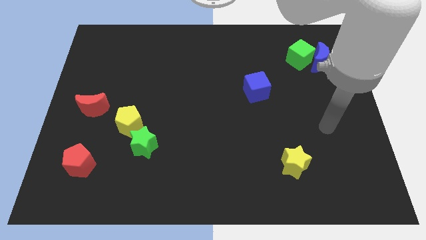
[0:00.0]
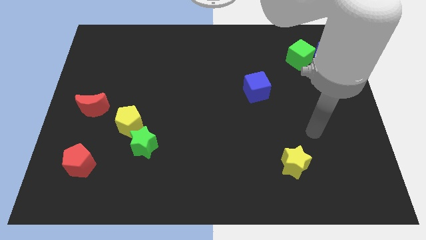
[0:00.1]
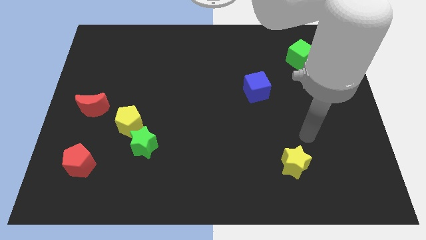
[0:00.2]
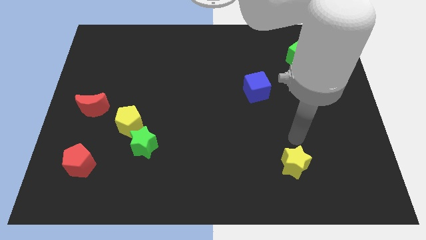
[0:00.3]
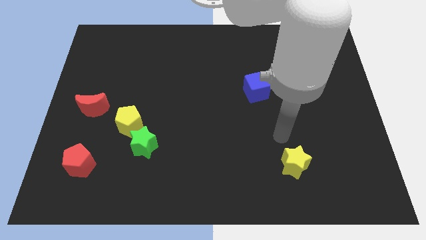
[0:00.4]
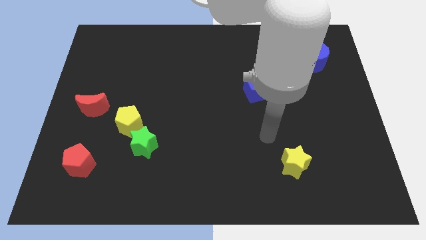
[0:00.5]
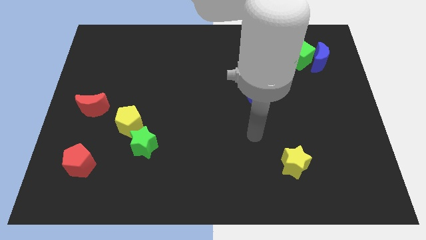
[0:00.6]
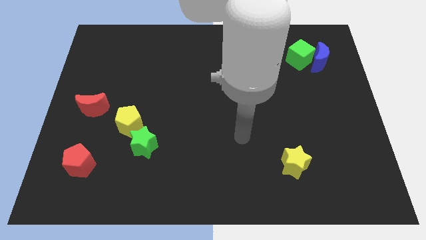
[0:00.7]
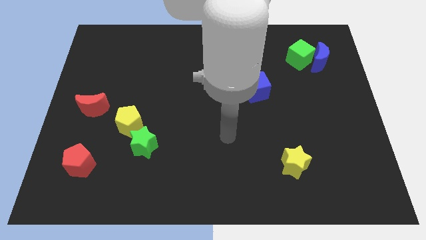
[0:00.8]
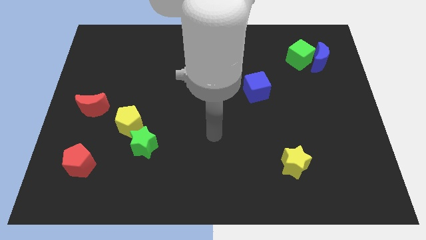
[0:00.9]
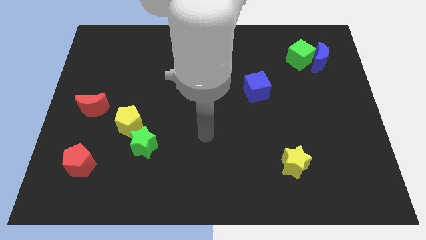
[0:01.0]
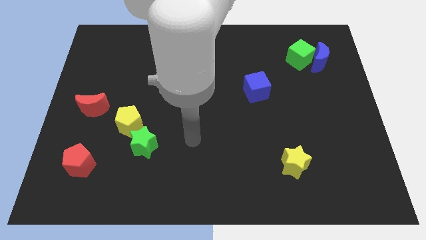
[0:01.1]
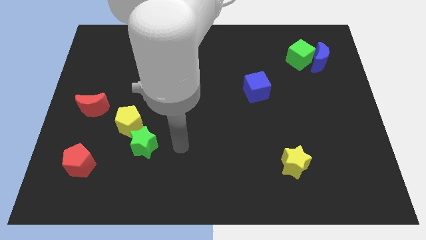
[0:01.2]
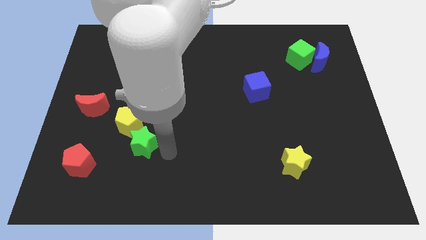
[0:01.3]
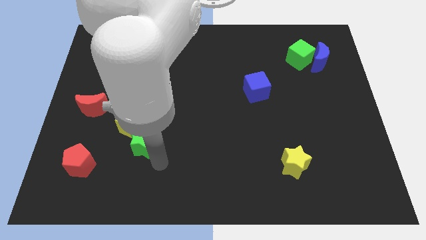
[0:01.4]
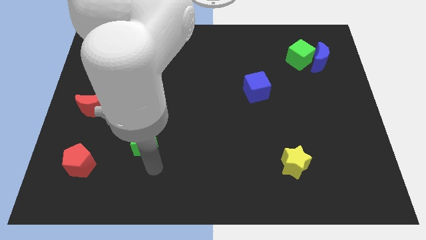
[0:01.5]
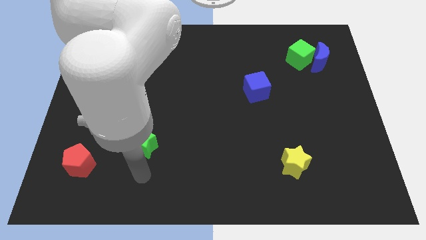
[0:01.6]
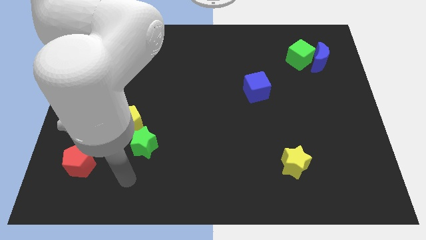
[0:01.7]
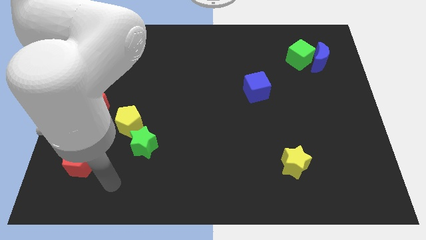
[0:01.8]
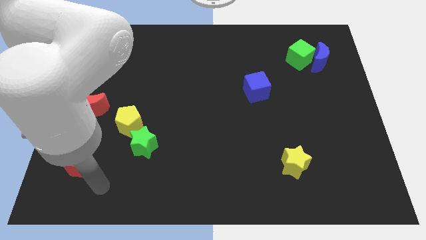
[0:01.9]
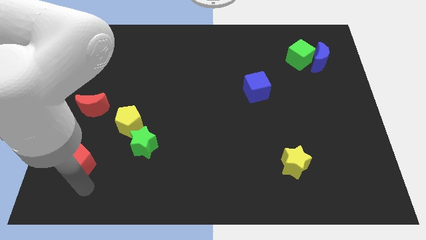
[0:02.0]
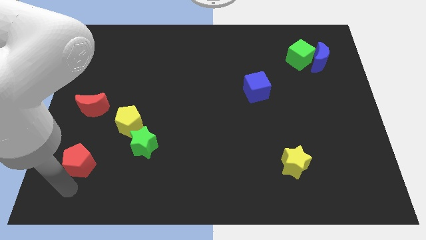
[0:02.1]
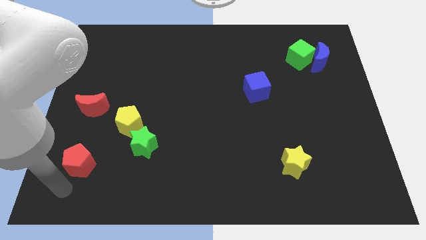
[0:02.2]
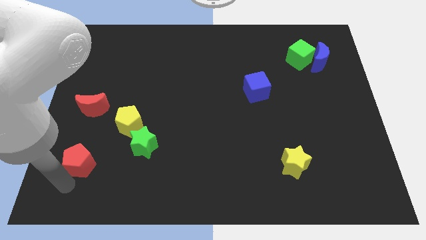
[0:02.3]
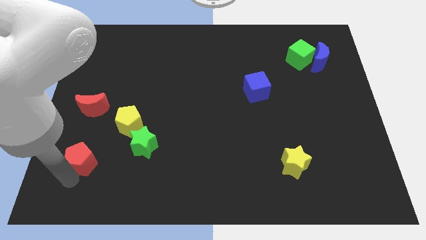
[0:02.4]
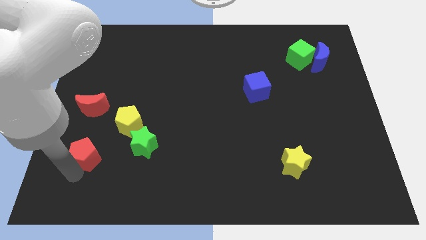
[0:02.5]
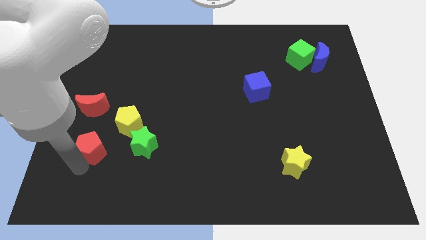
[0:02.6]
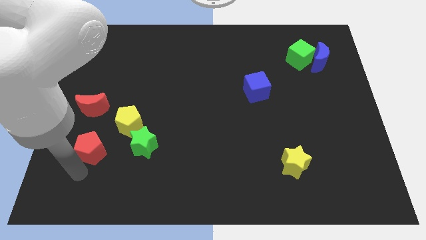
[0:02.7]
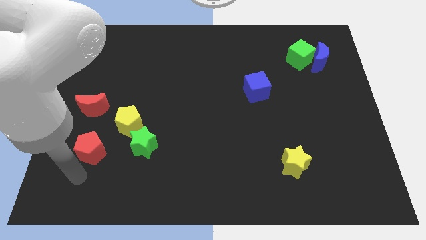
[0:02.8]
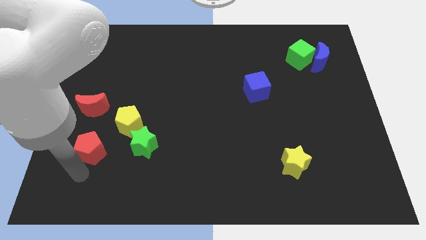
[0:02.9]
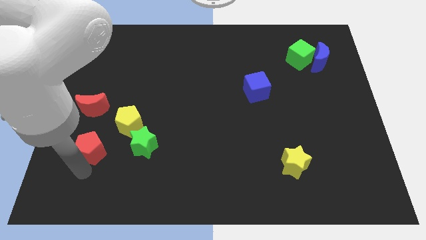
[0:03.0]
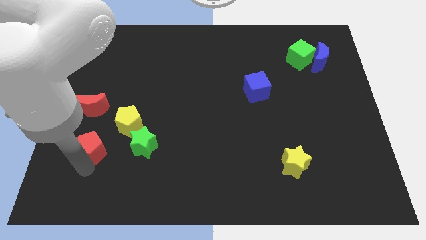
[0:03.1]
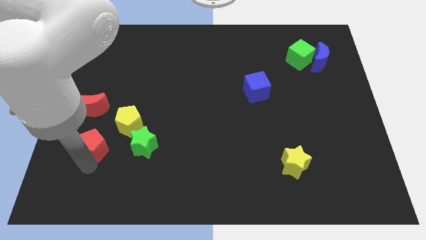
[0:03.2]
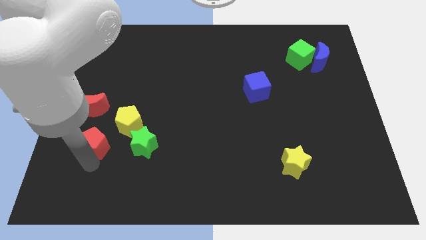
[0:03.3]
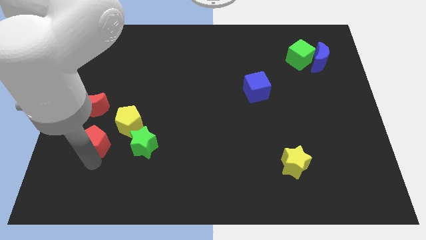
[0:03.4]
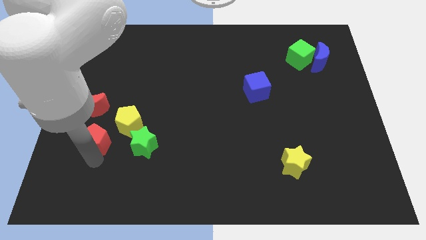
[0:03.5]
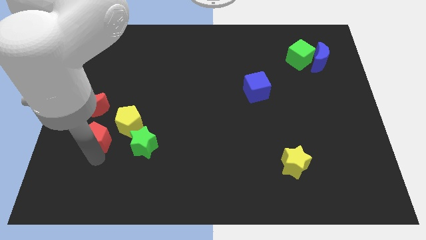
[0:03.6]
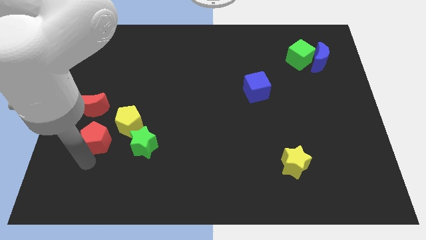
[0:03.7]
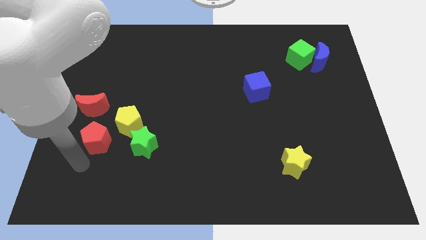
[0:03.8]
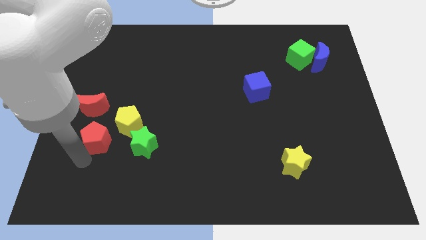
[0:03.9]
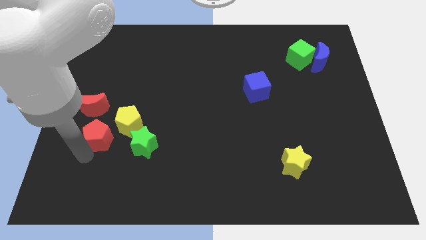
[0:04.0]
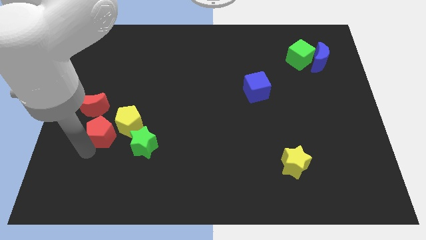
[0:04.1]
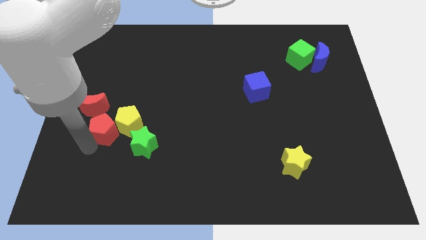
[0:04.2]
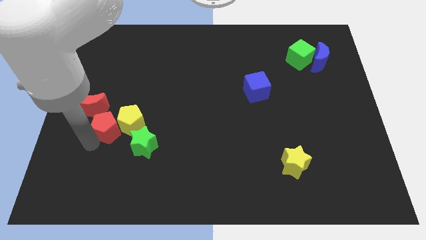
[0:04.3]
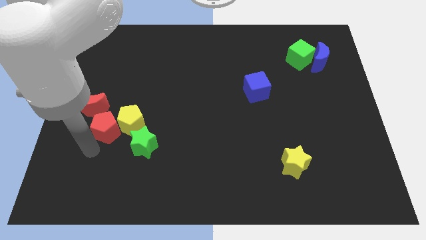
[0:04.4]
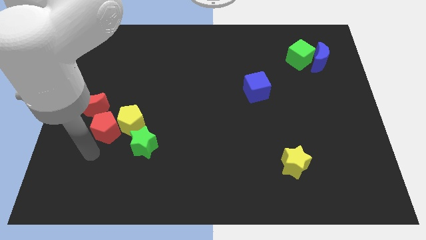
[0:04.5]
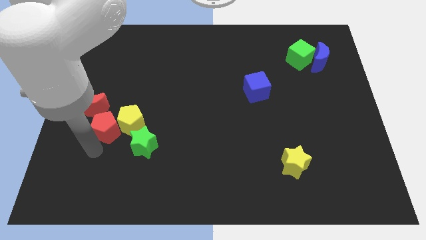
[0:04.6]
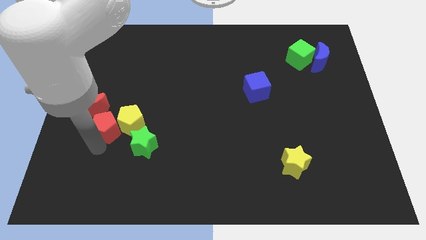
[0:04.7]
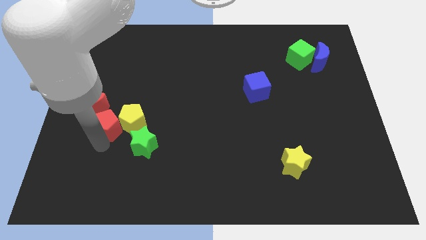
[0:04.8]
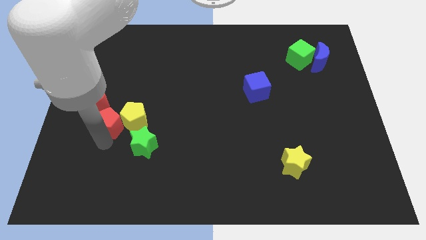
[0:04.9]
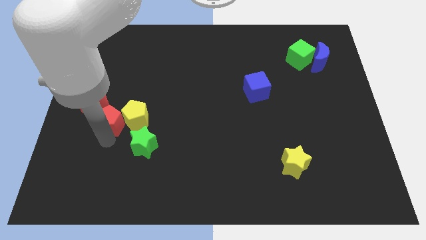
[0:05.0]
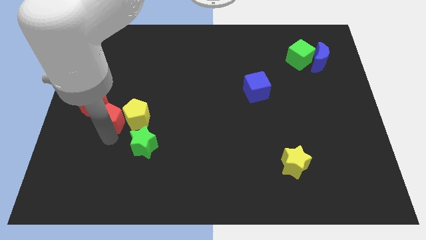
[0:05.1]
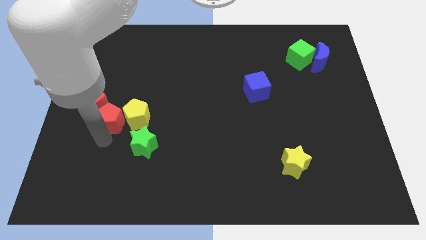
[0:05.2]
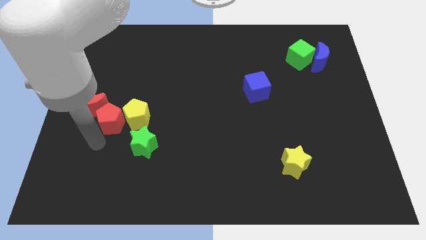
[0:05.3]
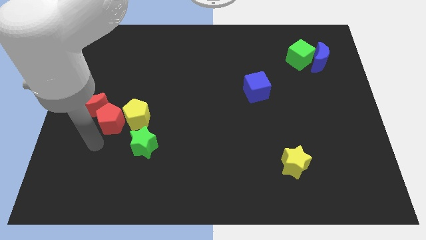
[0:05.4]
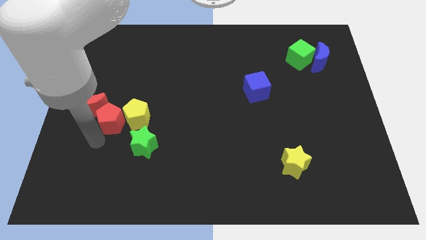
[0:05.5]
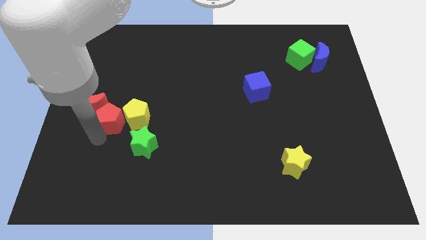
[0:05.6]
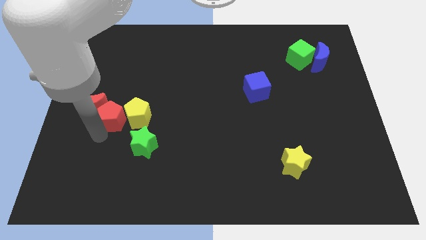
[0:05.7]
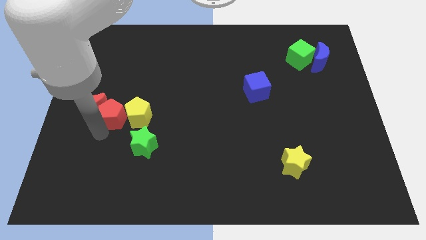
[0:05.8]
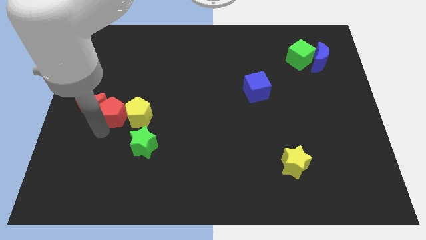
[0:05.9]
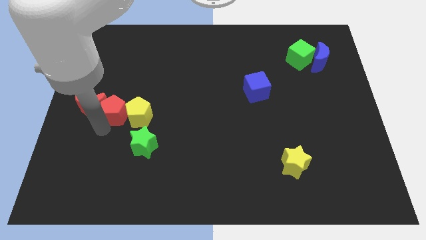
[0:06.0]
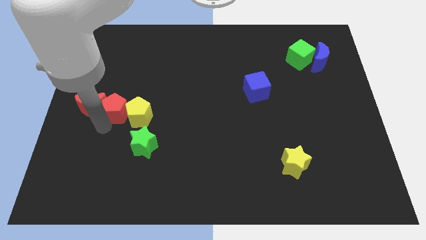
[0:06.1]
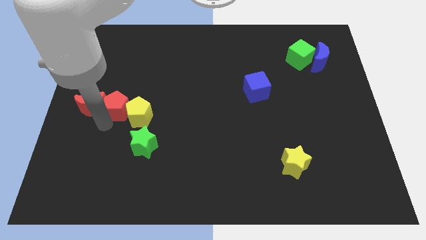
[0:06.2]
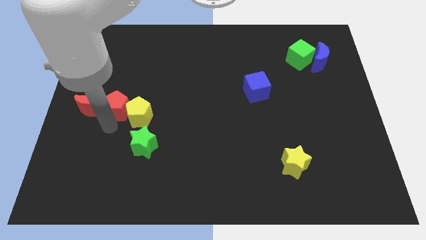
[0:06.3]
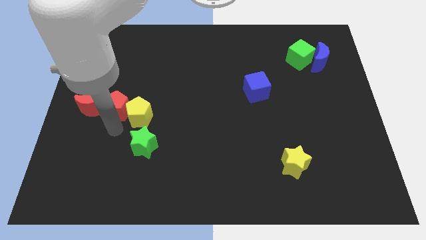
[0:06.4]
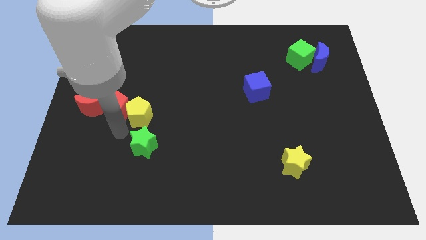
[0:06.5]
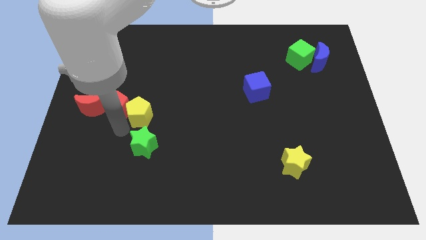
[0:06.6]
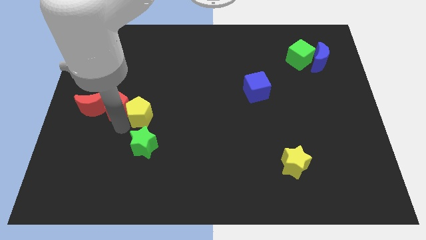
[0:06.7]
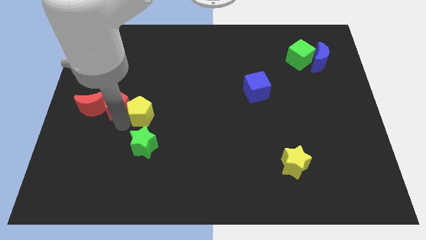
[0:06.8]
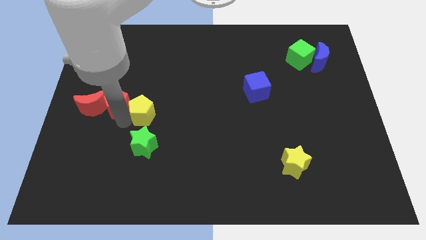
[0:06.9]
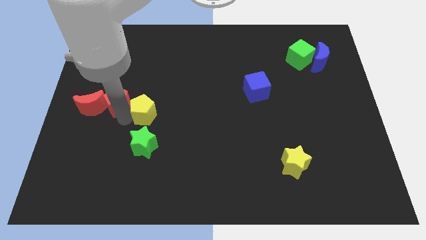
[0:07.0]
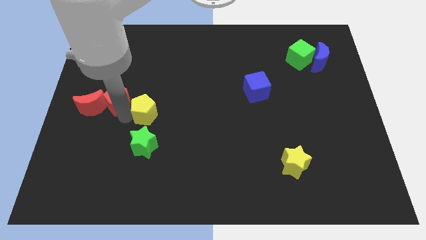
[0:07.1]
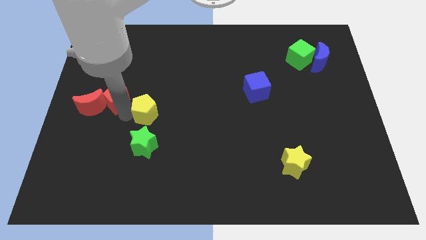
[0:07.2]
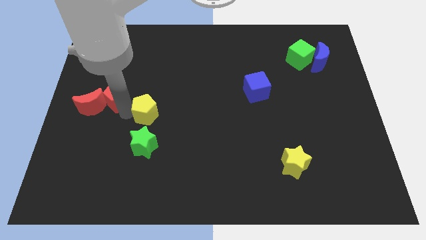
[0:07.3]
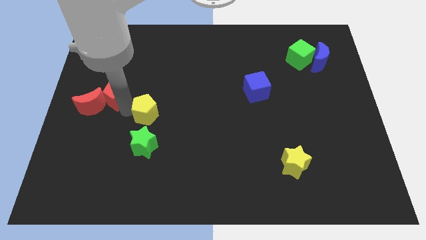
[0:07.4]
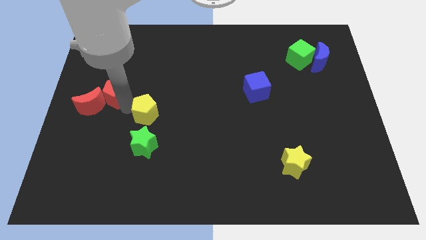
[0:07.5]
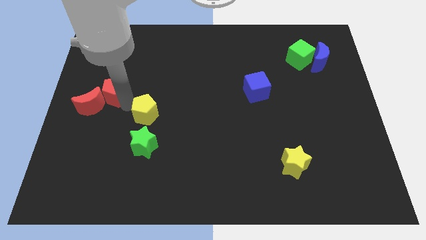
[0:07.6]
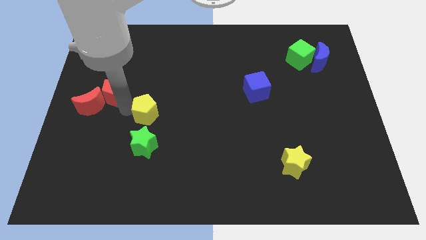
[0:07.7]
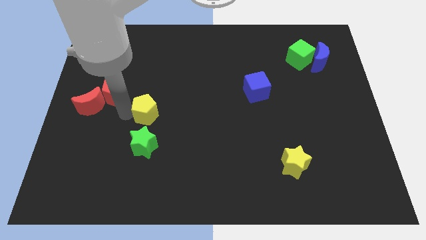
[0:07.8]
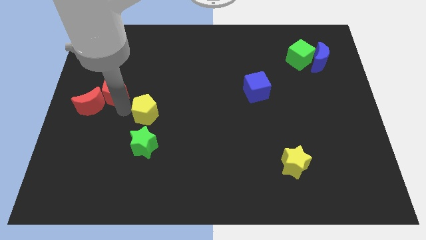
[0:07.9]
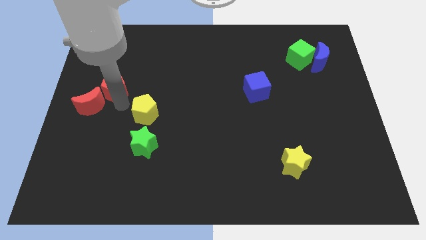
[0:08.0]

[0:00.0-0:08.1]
move the red pentagon upwards
